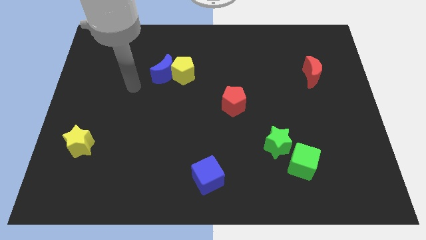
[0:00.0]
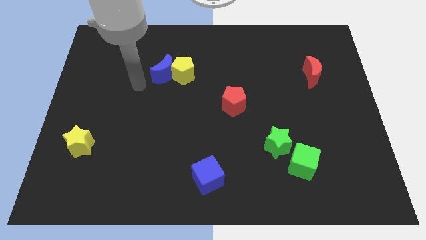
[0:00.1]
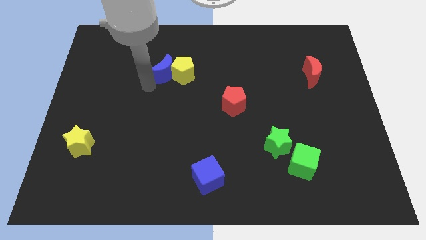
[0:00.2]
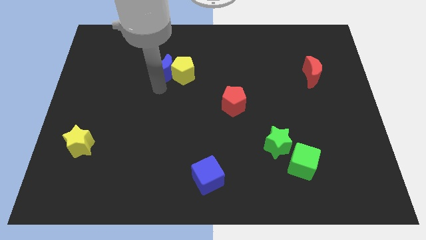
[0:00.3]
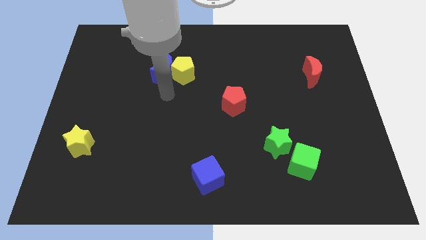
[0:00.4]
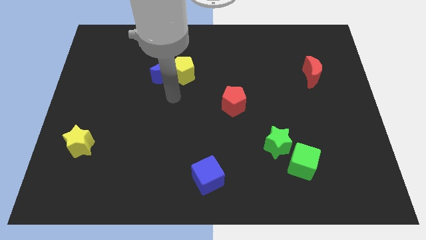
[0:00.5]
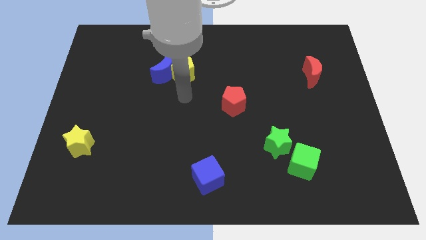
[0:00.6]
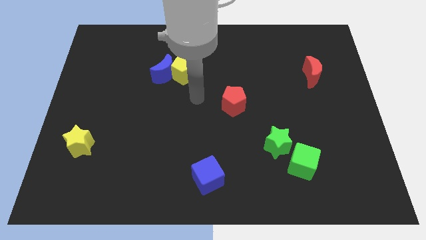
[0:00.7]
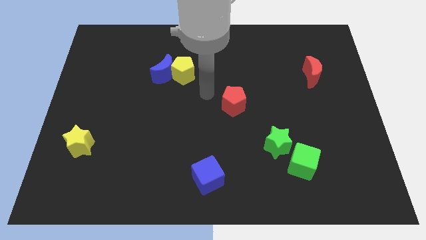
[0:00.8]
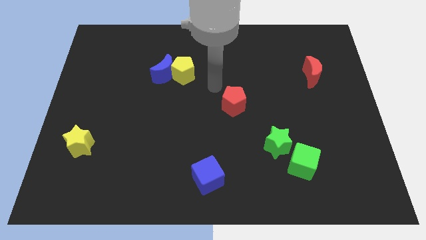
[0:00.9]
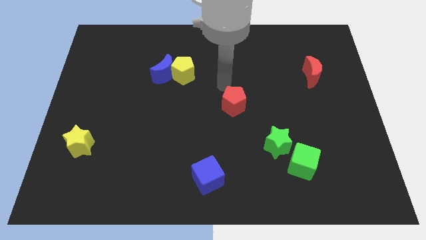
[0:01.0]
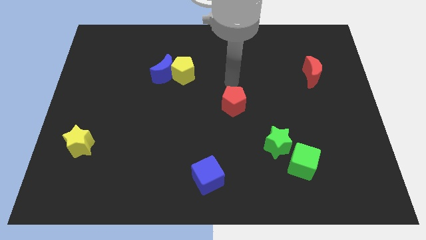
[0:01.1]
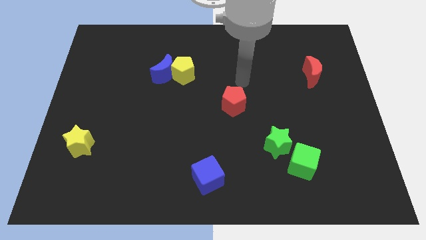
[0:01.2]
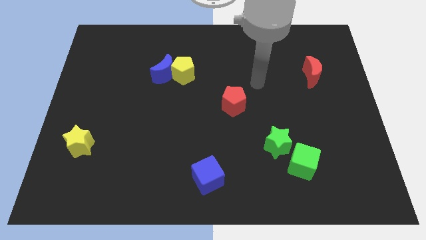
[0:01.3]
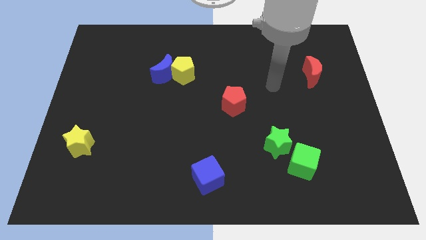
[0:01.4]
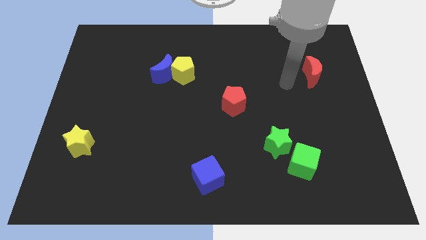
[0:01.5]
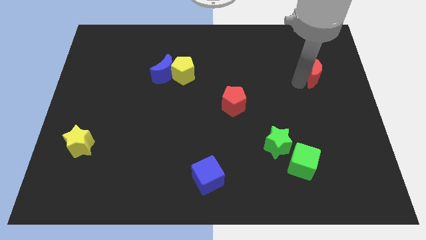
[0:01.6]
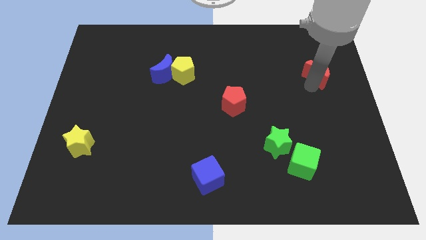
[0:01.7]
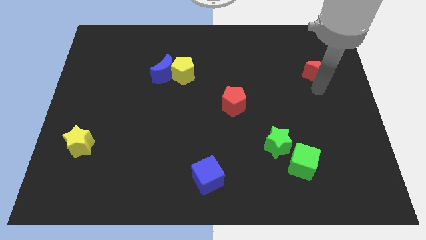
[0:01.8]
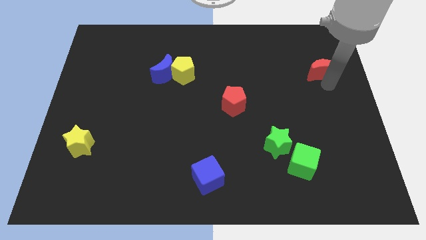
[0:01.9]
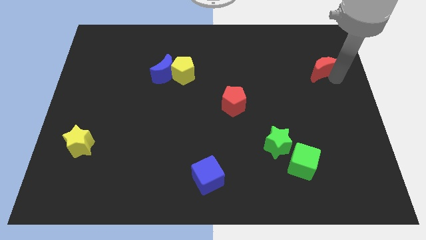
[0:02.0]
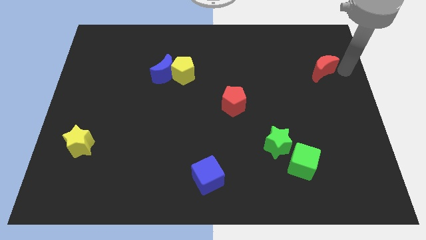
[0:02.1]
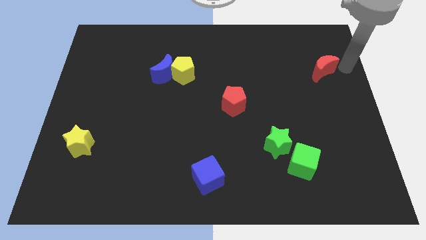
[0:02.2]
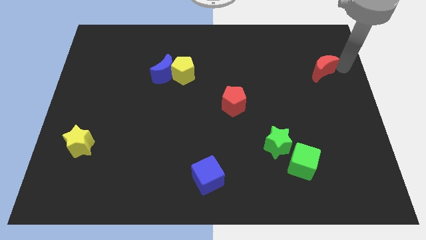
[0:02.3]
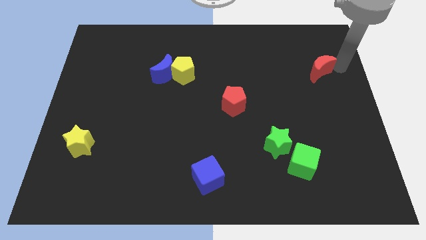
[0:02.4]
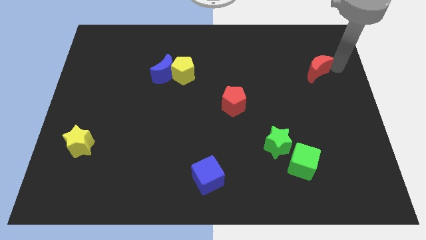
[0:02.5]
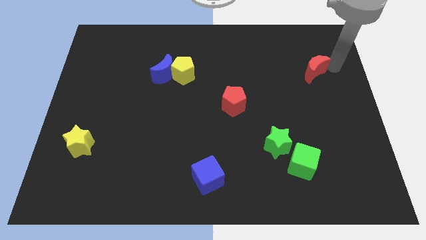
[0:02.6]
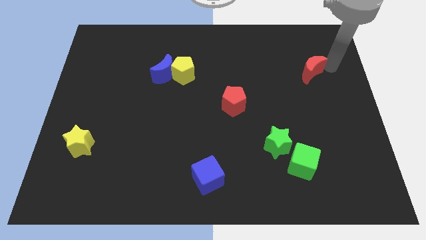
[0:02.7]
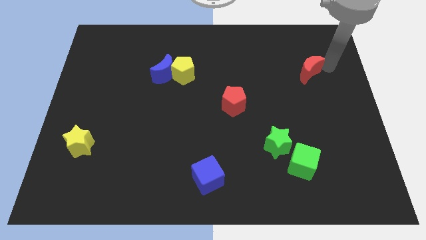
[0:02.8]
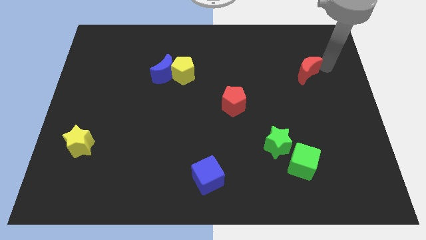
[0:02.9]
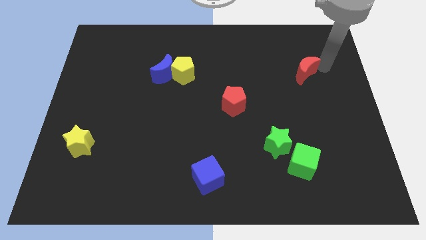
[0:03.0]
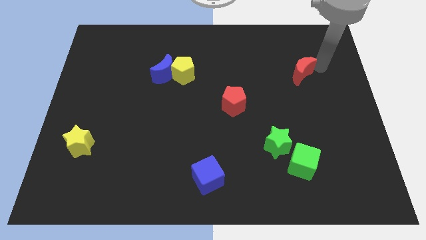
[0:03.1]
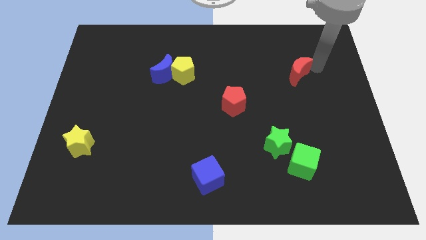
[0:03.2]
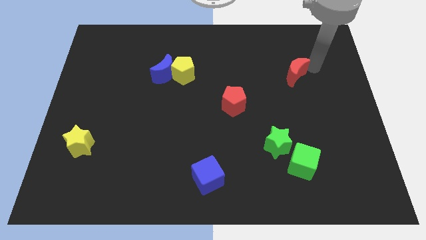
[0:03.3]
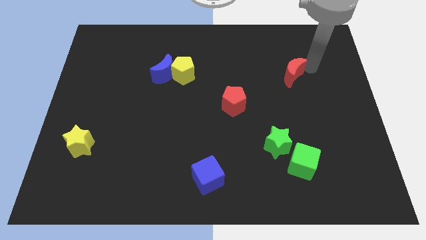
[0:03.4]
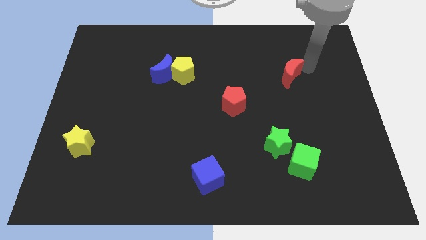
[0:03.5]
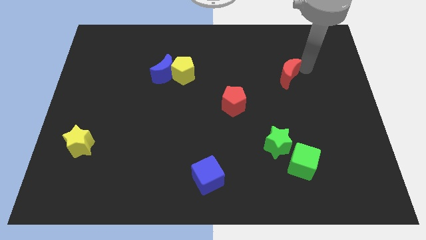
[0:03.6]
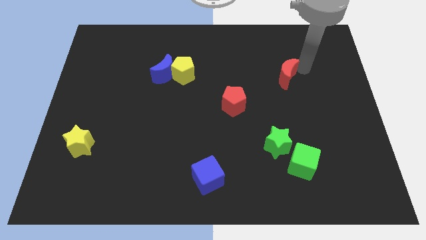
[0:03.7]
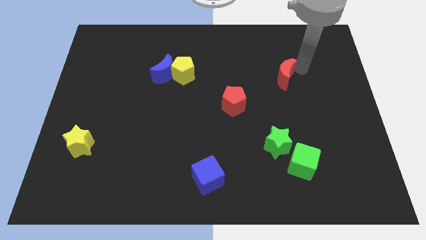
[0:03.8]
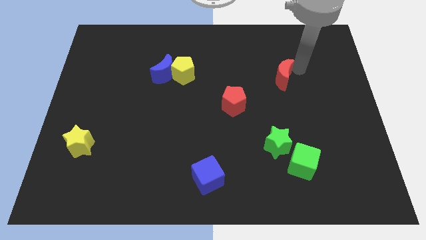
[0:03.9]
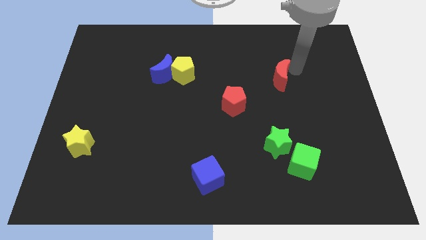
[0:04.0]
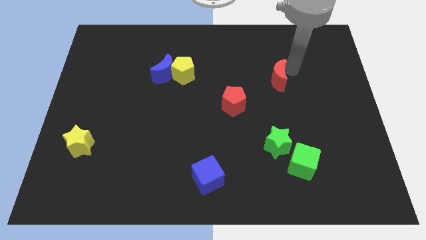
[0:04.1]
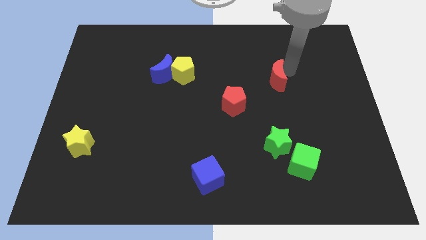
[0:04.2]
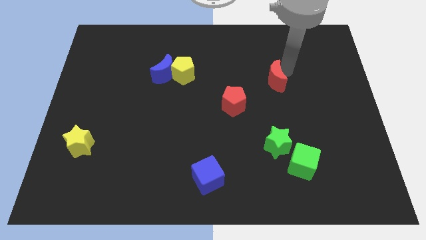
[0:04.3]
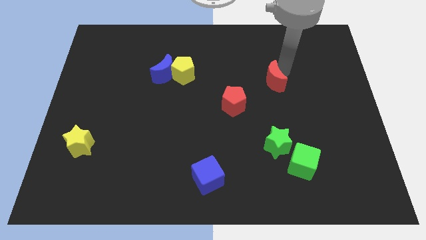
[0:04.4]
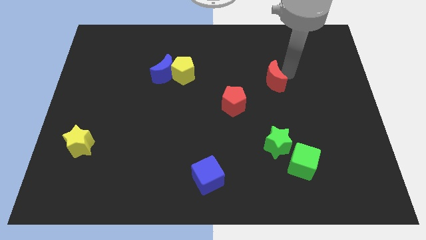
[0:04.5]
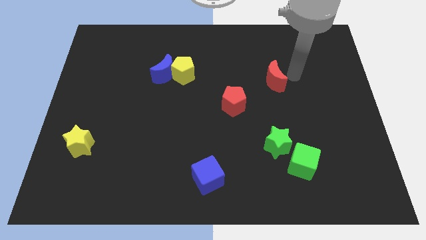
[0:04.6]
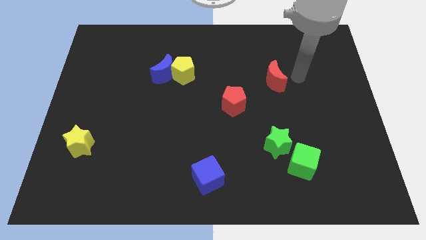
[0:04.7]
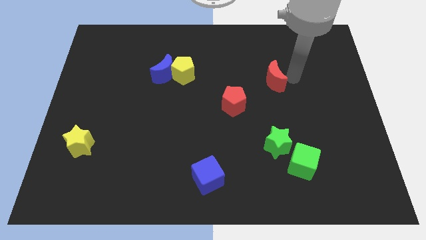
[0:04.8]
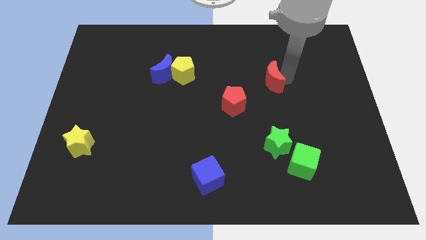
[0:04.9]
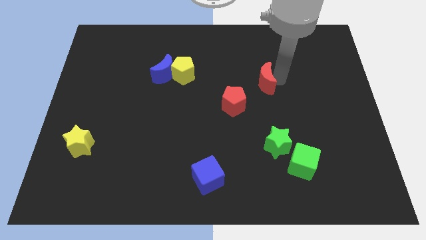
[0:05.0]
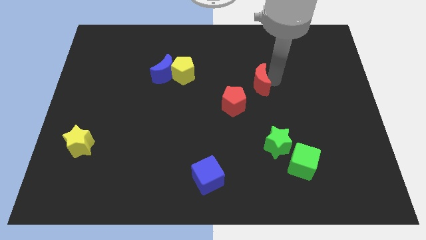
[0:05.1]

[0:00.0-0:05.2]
move the red moon to the center

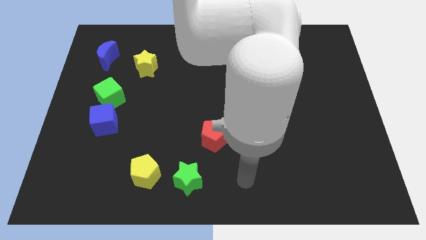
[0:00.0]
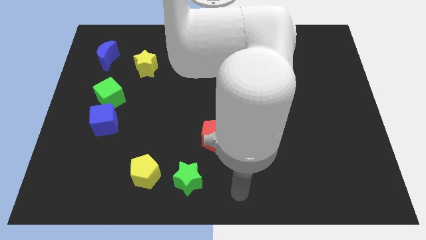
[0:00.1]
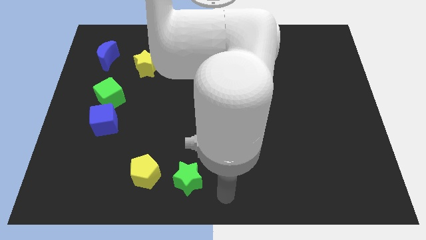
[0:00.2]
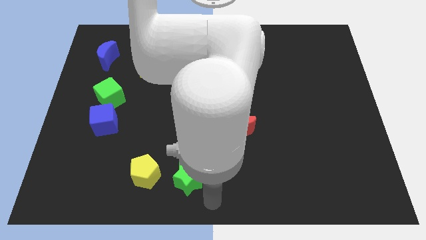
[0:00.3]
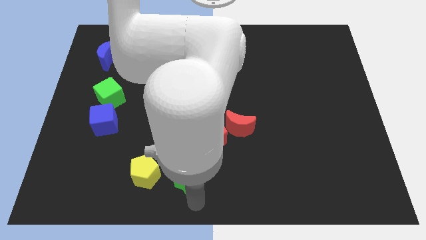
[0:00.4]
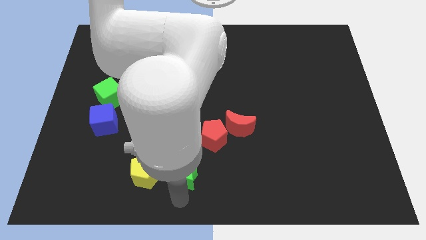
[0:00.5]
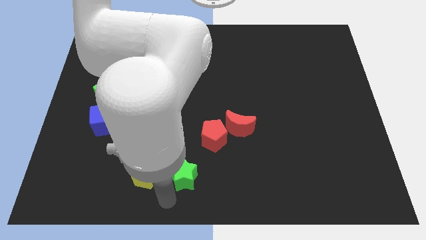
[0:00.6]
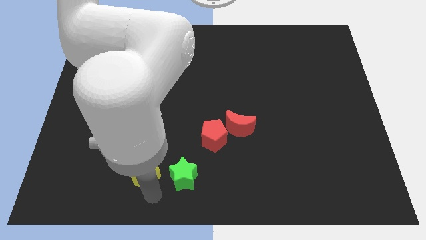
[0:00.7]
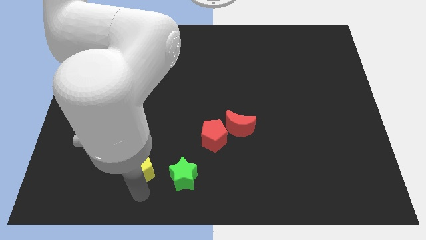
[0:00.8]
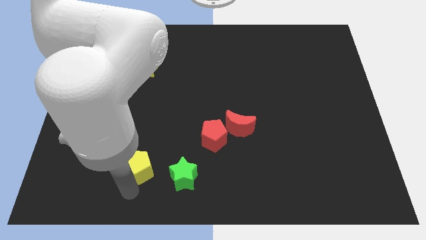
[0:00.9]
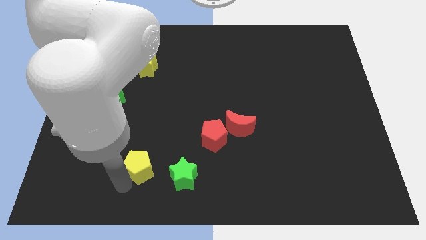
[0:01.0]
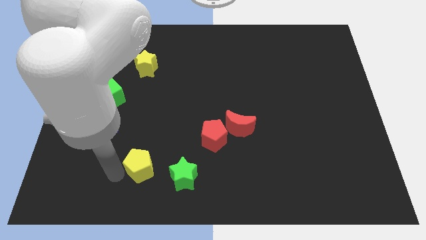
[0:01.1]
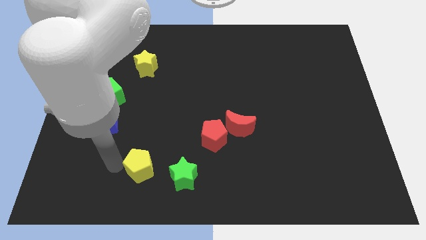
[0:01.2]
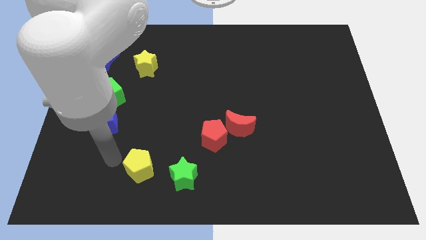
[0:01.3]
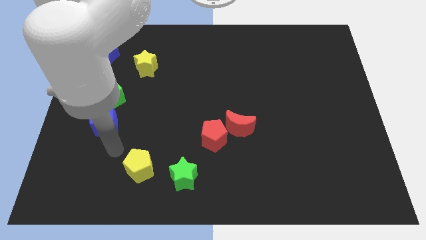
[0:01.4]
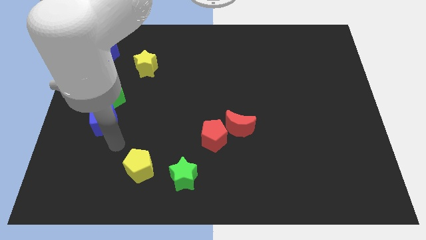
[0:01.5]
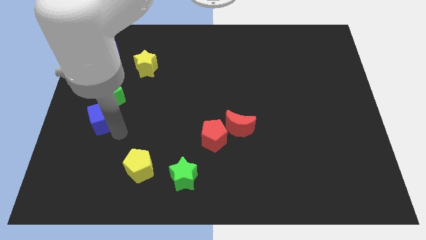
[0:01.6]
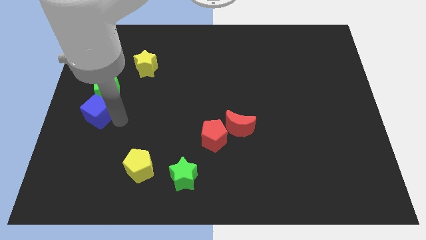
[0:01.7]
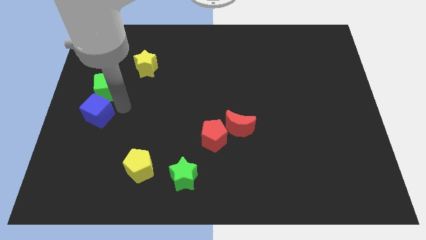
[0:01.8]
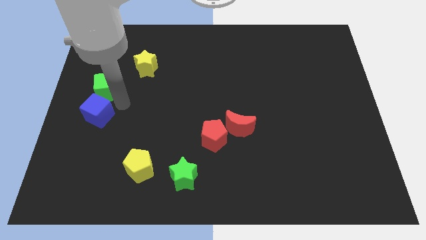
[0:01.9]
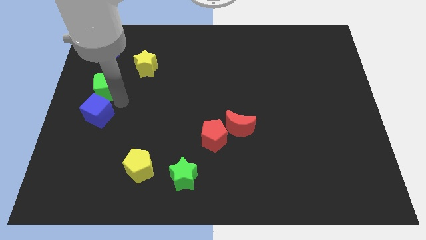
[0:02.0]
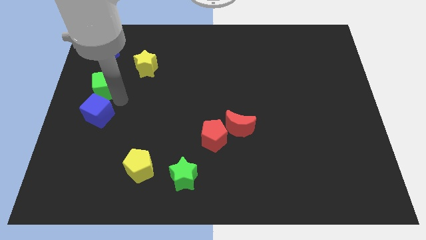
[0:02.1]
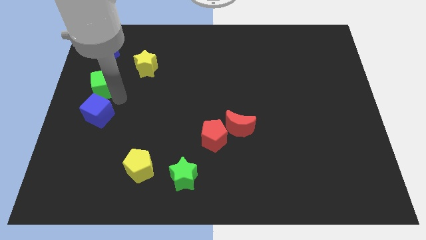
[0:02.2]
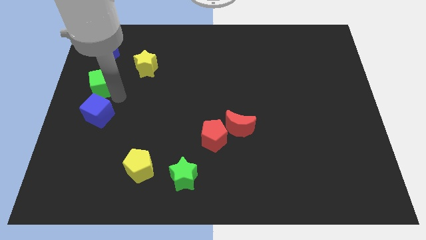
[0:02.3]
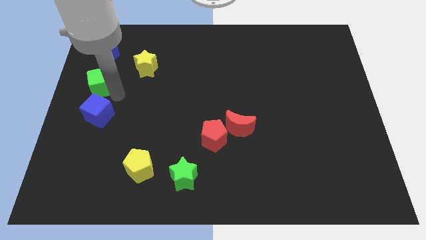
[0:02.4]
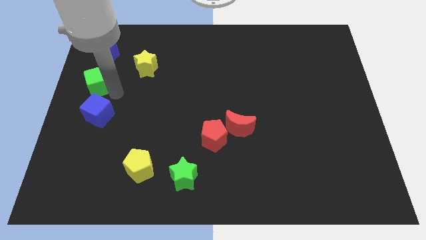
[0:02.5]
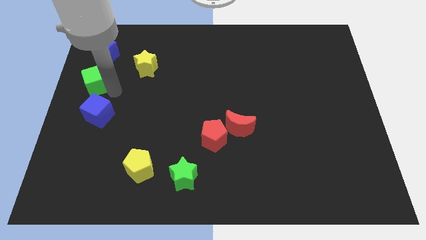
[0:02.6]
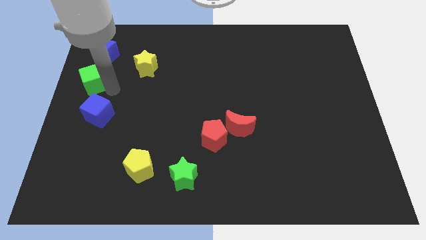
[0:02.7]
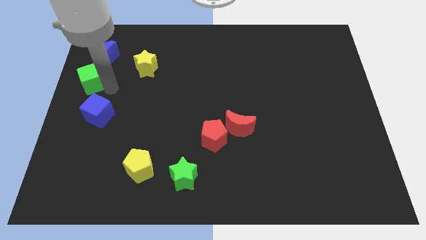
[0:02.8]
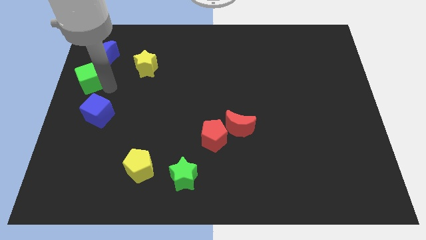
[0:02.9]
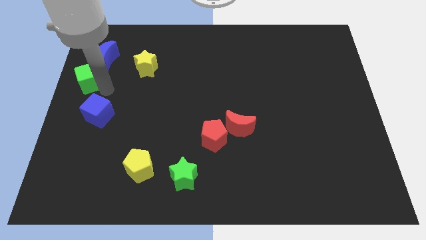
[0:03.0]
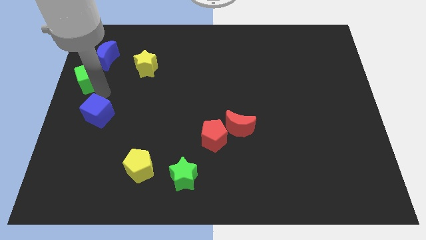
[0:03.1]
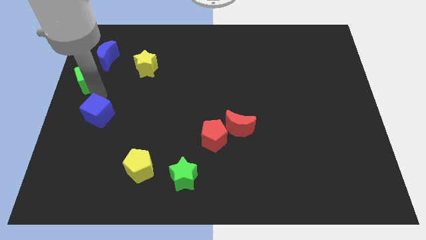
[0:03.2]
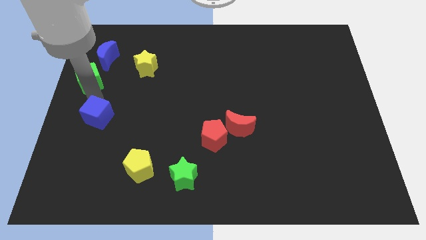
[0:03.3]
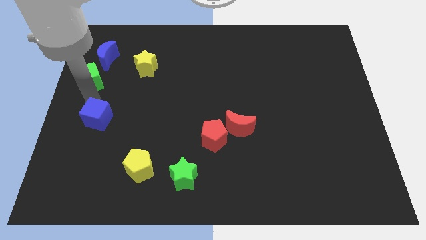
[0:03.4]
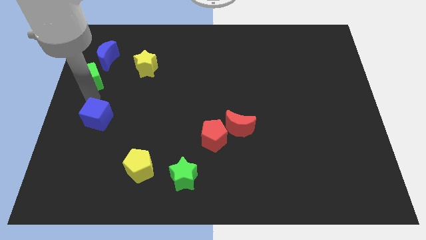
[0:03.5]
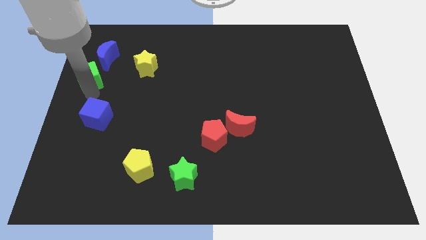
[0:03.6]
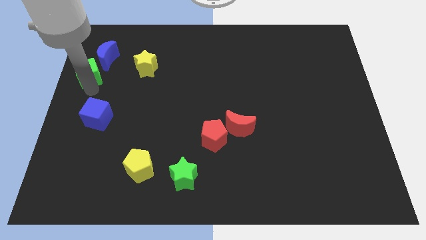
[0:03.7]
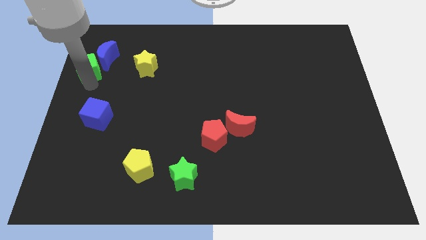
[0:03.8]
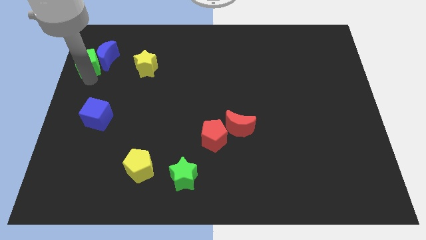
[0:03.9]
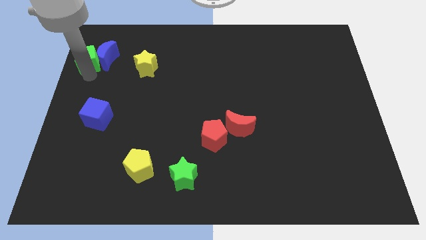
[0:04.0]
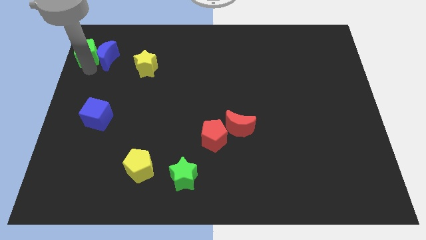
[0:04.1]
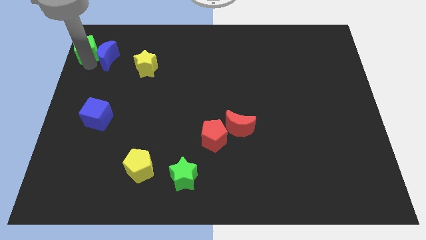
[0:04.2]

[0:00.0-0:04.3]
slide the green cube to the top left of the board
